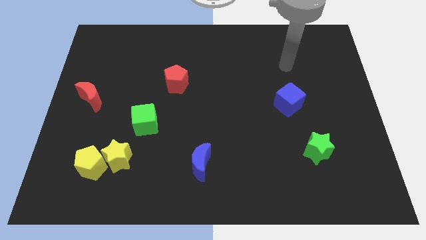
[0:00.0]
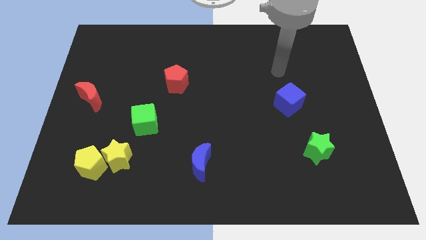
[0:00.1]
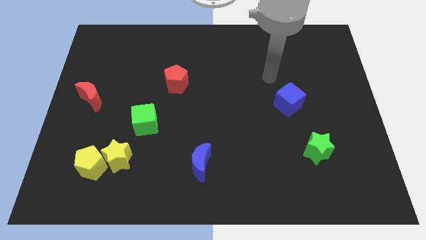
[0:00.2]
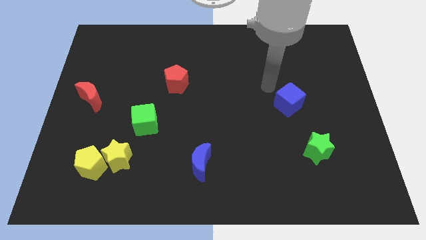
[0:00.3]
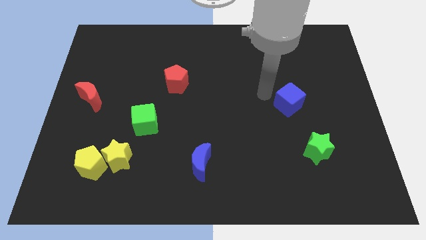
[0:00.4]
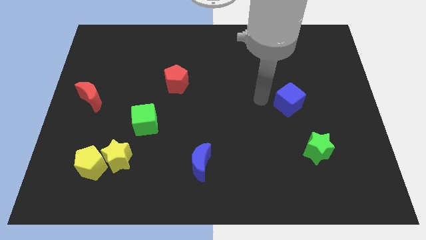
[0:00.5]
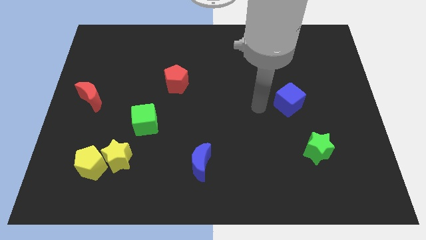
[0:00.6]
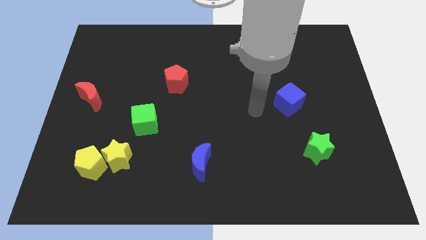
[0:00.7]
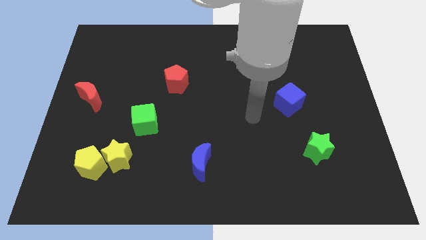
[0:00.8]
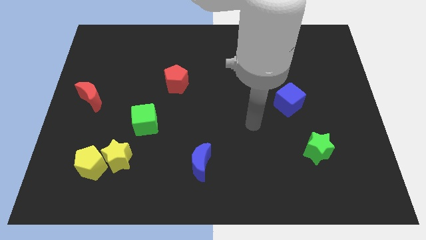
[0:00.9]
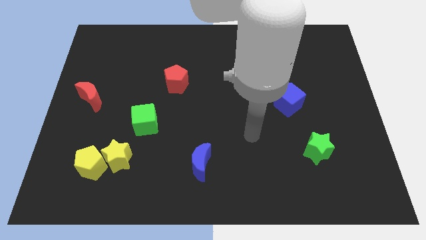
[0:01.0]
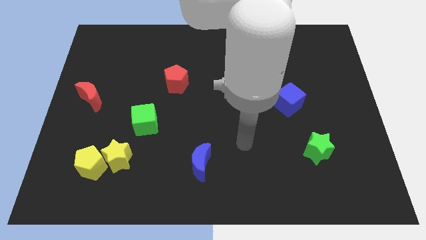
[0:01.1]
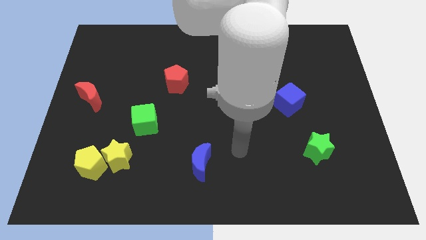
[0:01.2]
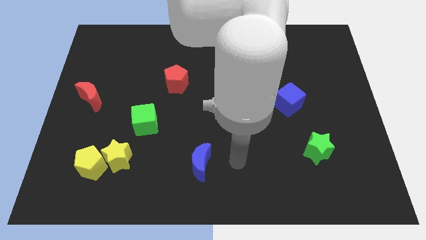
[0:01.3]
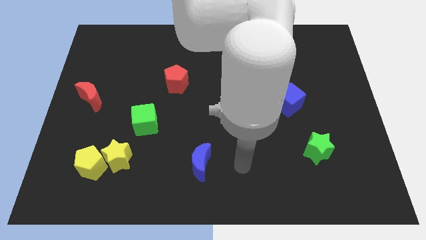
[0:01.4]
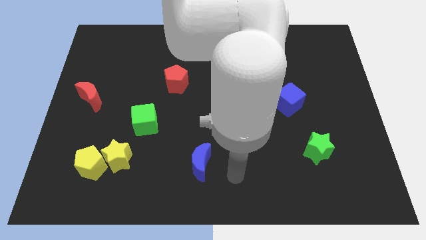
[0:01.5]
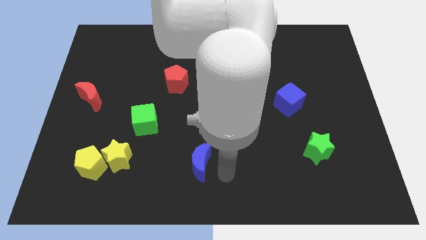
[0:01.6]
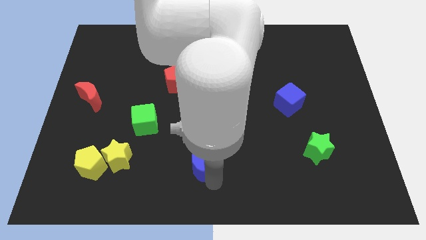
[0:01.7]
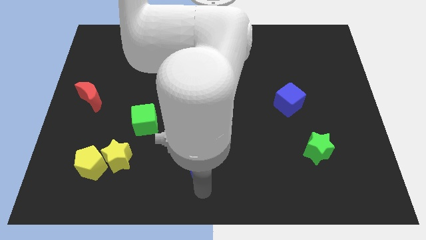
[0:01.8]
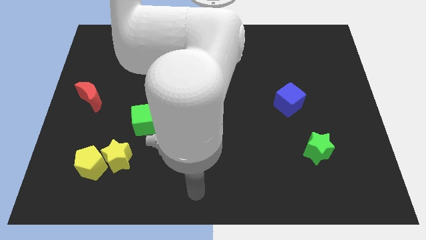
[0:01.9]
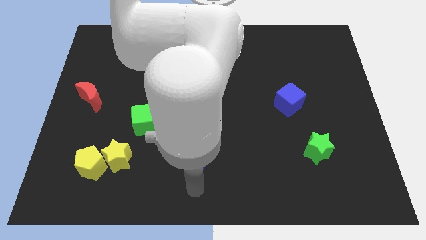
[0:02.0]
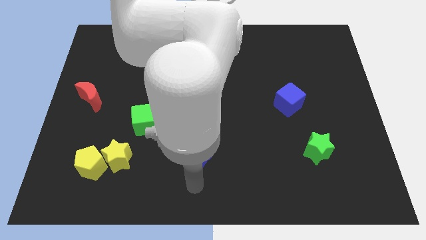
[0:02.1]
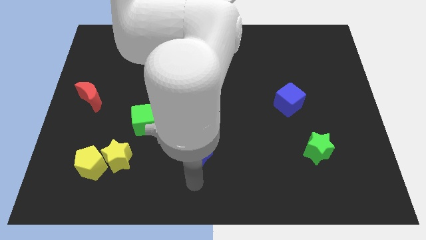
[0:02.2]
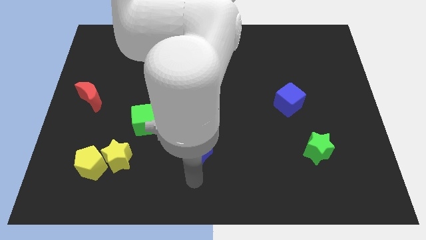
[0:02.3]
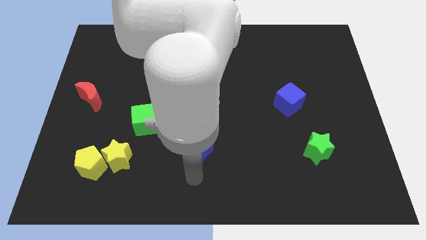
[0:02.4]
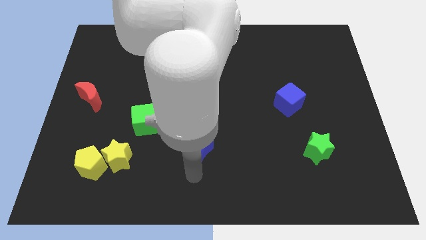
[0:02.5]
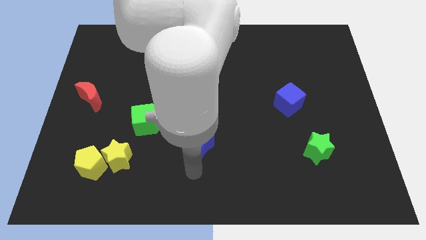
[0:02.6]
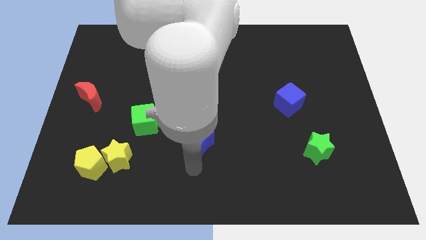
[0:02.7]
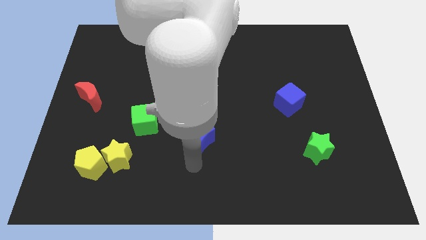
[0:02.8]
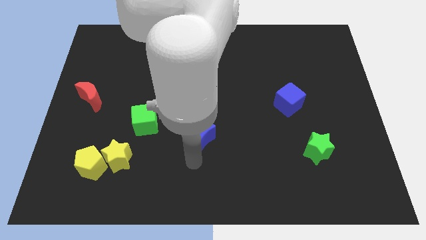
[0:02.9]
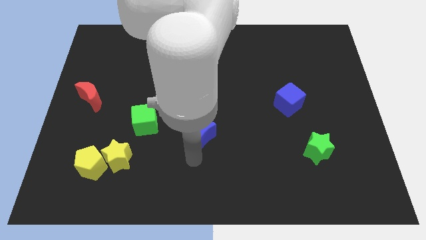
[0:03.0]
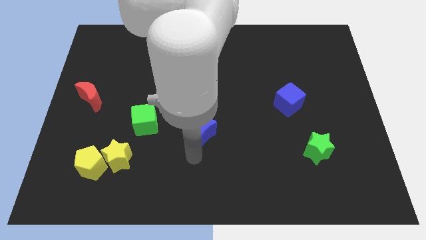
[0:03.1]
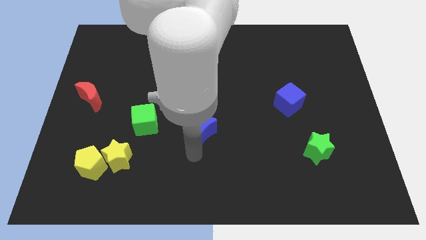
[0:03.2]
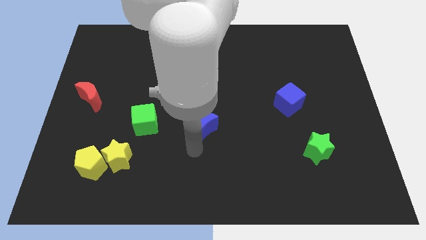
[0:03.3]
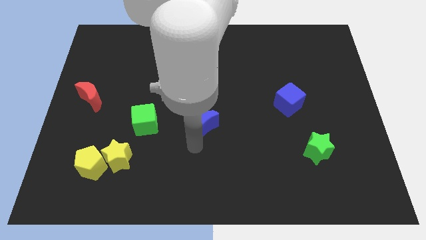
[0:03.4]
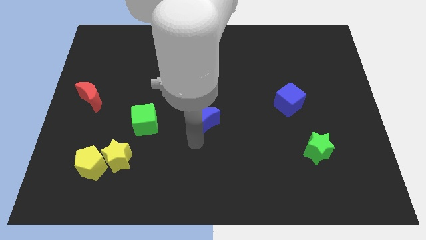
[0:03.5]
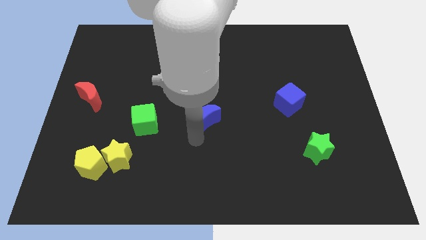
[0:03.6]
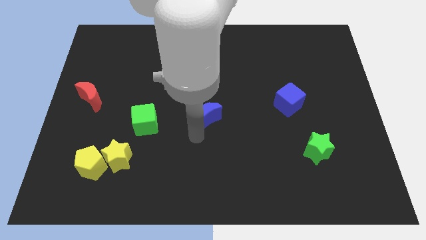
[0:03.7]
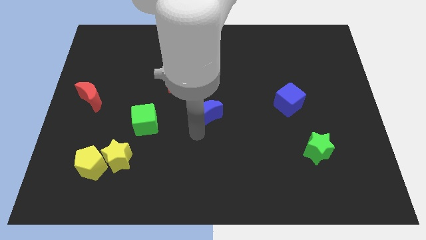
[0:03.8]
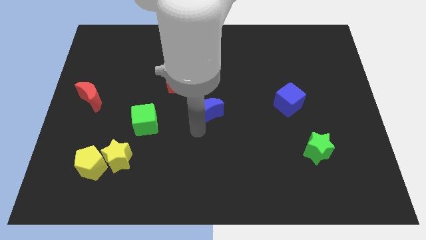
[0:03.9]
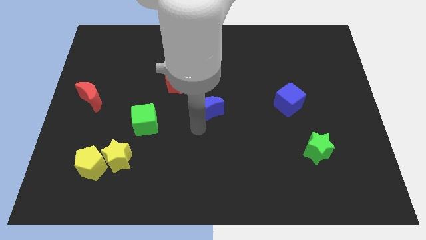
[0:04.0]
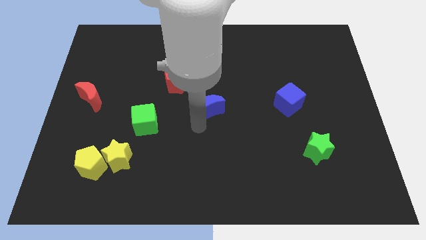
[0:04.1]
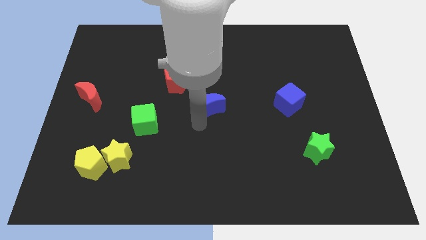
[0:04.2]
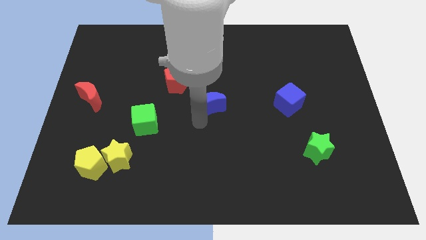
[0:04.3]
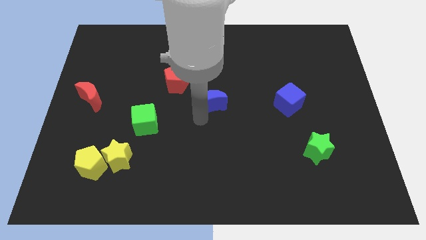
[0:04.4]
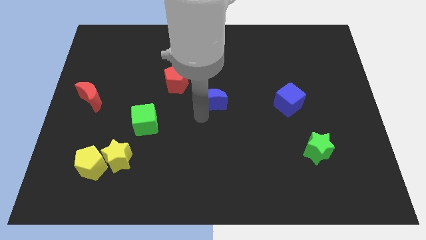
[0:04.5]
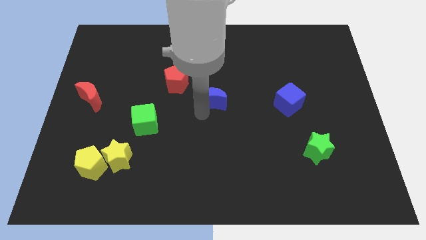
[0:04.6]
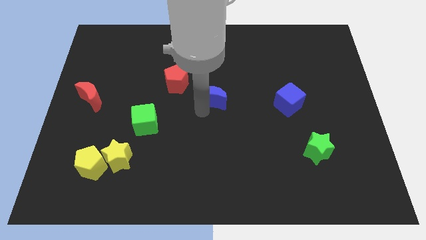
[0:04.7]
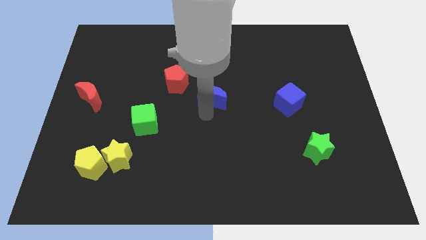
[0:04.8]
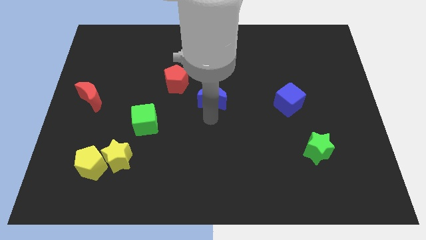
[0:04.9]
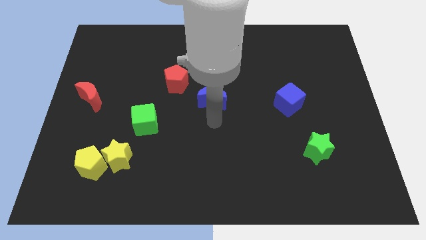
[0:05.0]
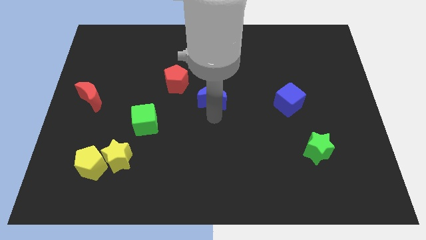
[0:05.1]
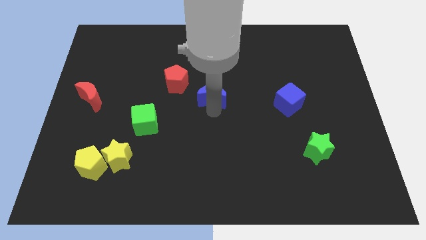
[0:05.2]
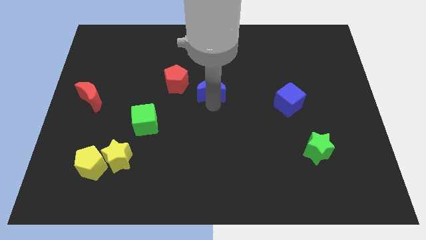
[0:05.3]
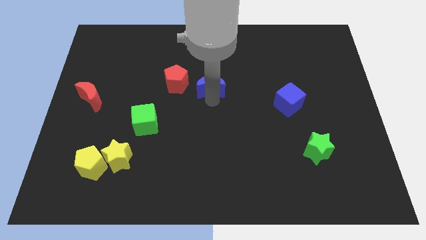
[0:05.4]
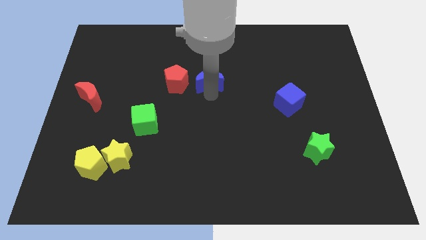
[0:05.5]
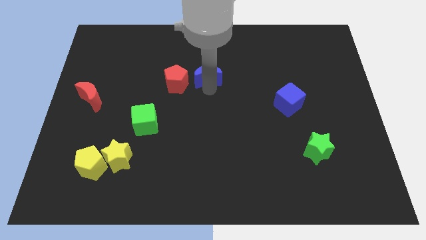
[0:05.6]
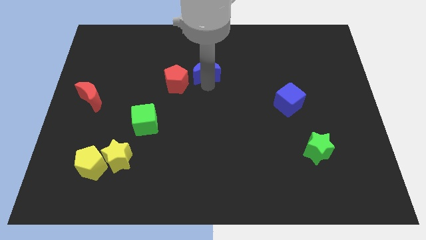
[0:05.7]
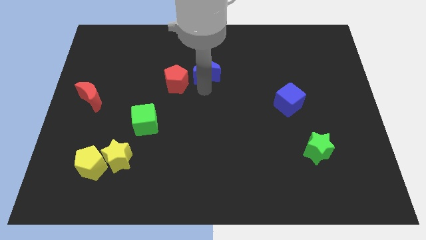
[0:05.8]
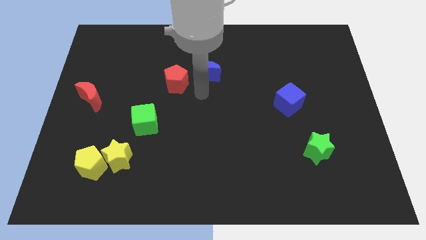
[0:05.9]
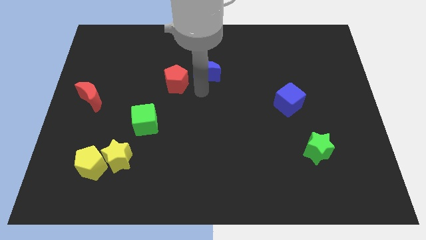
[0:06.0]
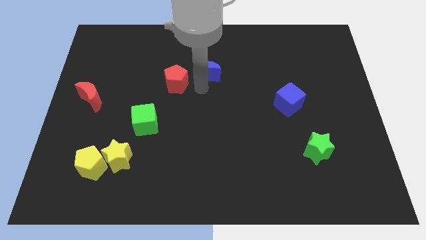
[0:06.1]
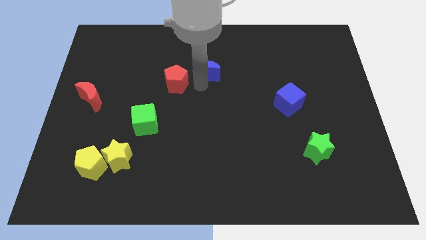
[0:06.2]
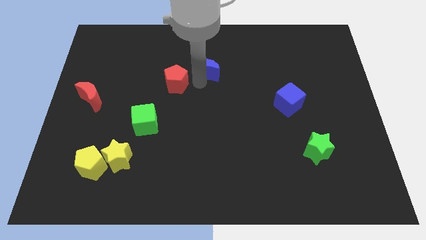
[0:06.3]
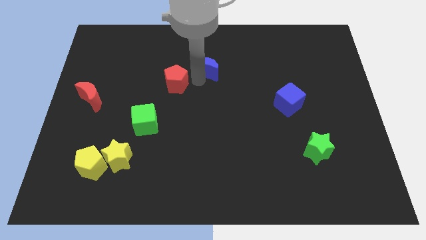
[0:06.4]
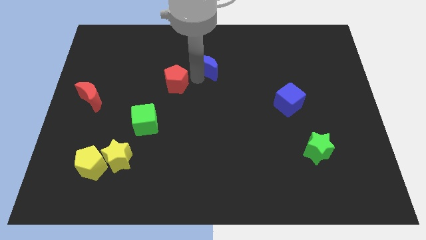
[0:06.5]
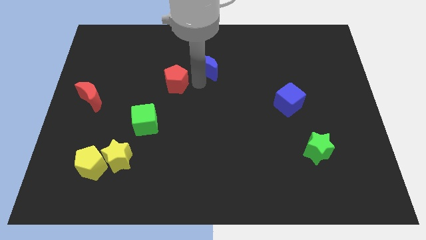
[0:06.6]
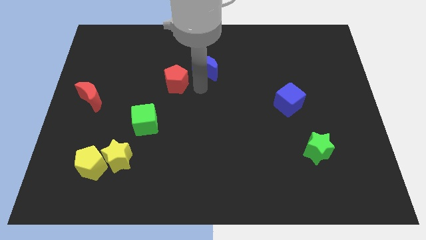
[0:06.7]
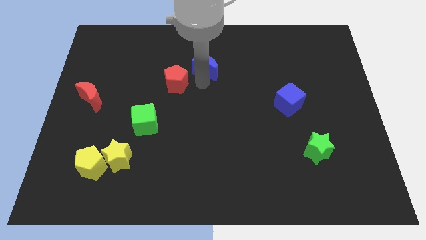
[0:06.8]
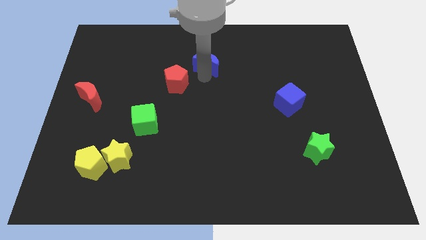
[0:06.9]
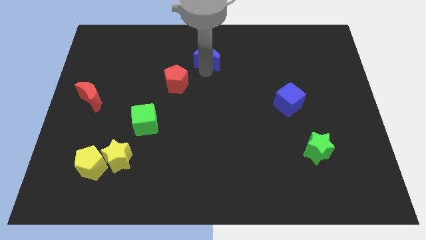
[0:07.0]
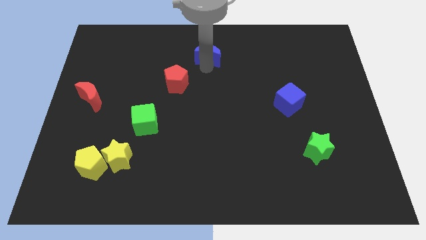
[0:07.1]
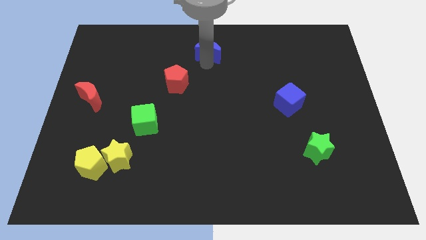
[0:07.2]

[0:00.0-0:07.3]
move the blue moon to the top side
